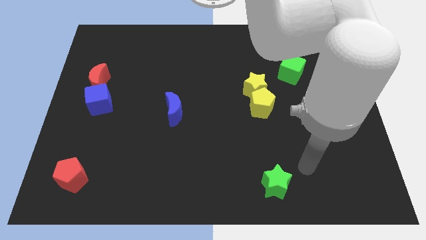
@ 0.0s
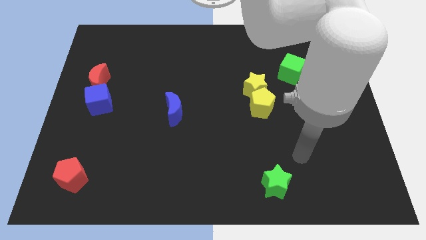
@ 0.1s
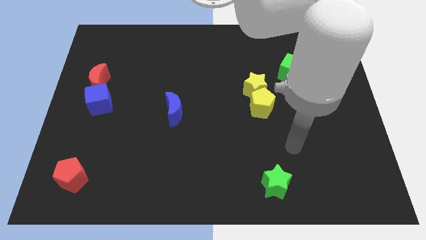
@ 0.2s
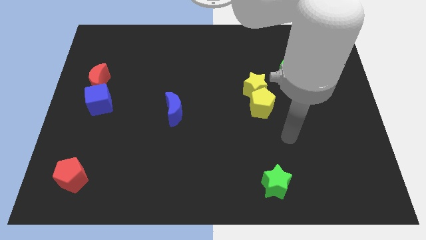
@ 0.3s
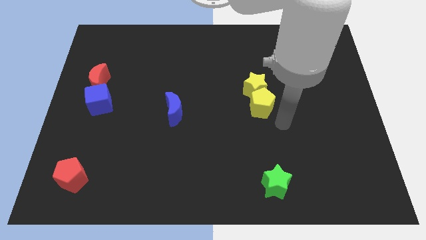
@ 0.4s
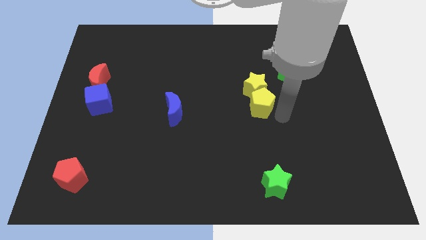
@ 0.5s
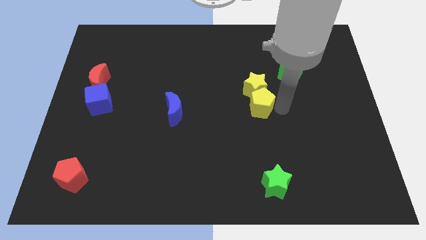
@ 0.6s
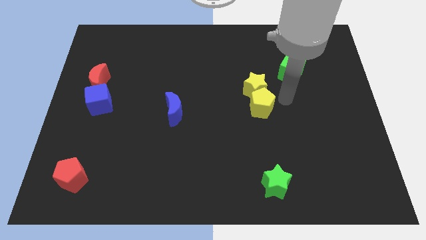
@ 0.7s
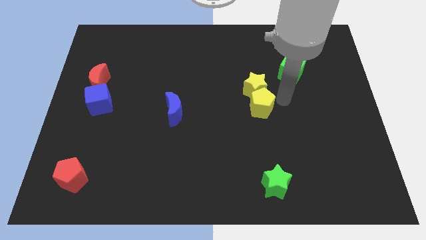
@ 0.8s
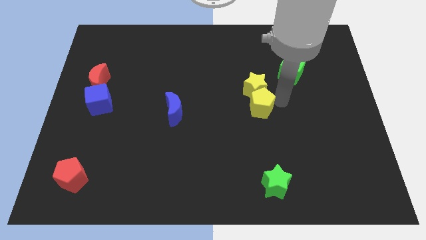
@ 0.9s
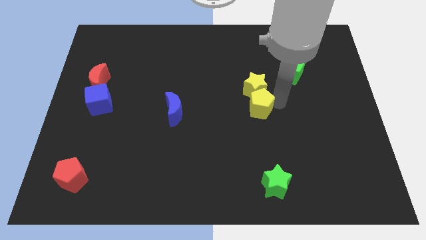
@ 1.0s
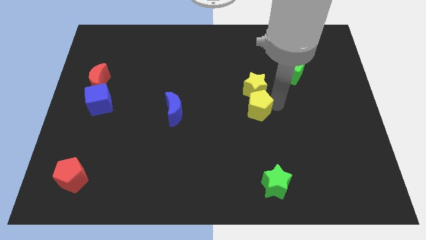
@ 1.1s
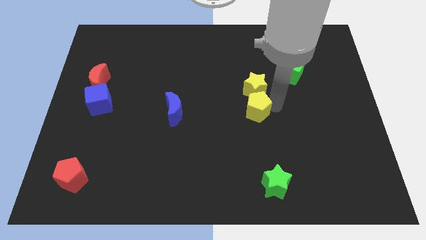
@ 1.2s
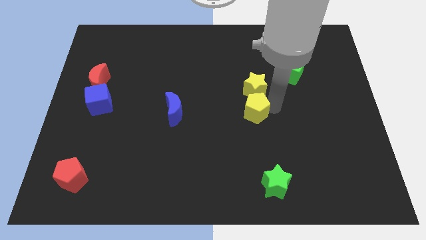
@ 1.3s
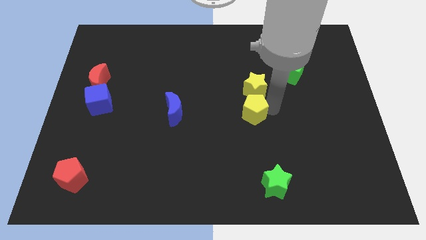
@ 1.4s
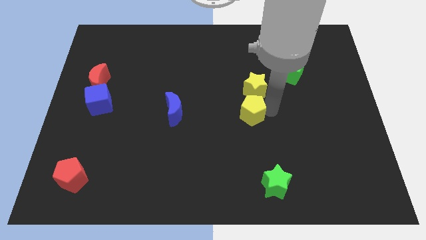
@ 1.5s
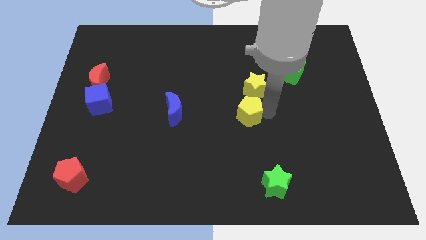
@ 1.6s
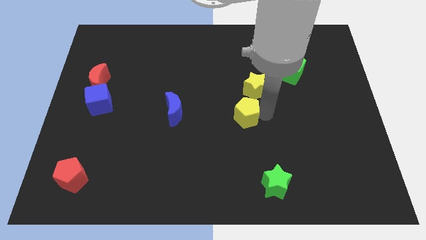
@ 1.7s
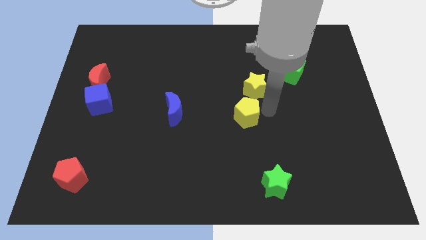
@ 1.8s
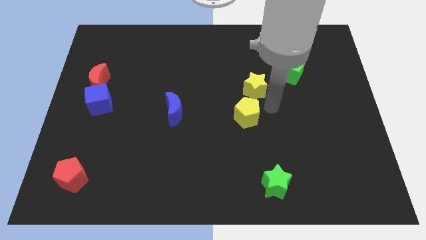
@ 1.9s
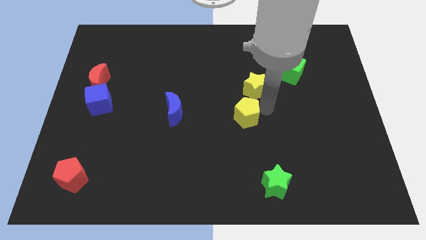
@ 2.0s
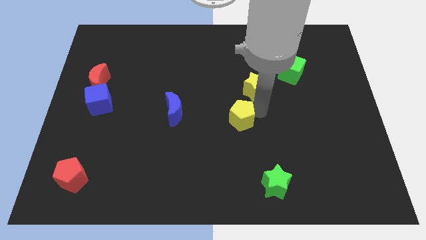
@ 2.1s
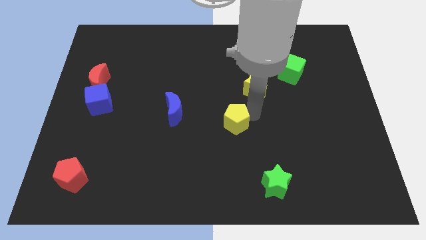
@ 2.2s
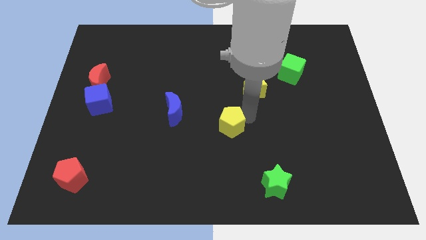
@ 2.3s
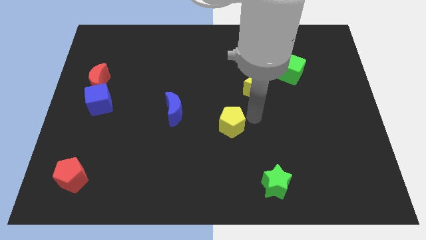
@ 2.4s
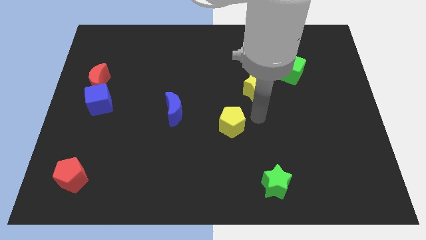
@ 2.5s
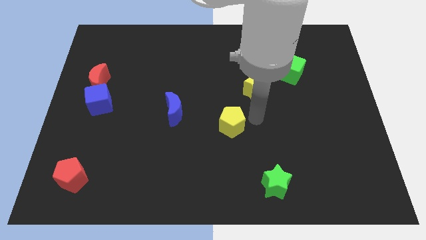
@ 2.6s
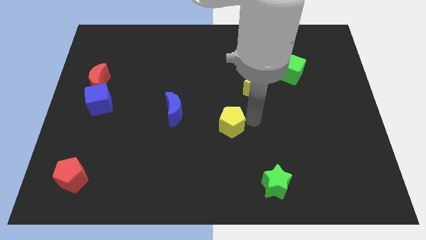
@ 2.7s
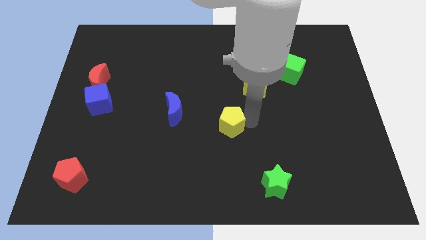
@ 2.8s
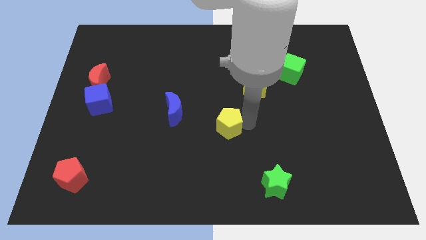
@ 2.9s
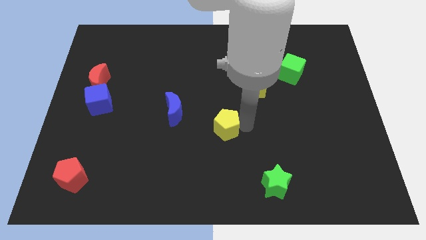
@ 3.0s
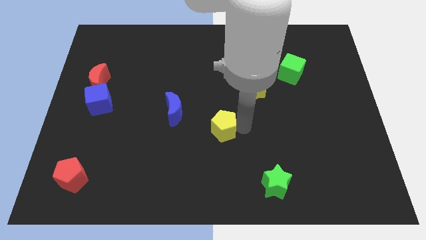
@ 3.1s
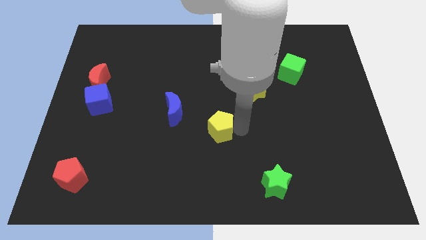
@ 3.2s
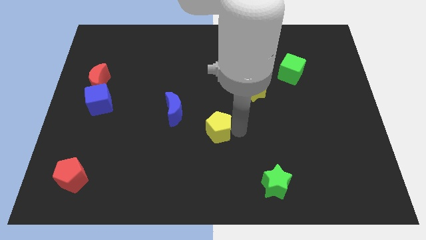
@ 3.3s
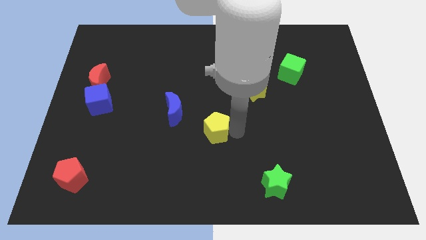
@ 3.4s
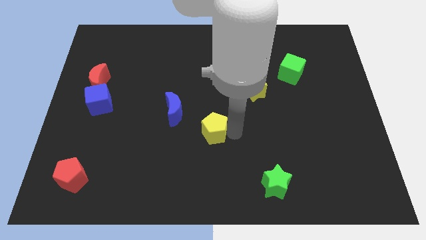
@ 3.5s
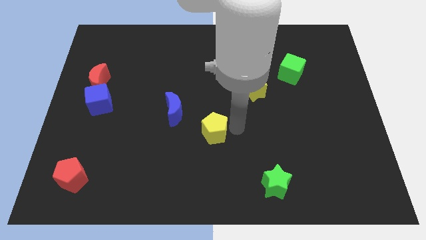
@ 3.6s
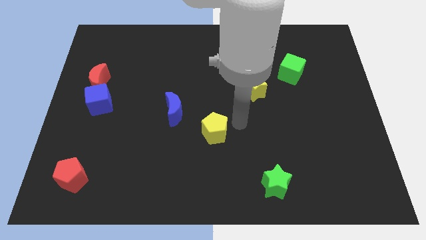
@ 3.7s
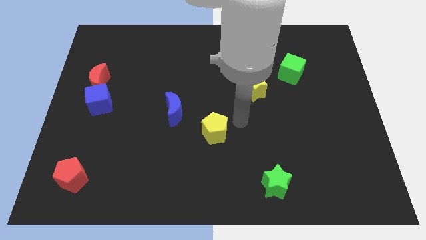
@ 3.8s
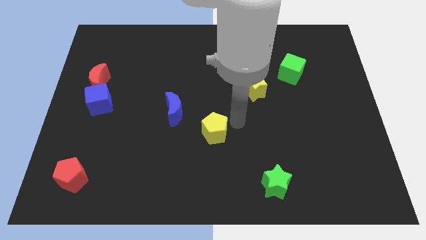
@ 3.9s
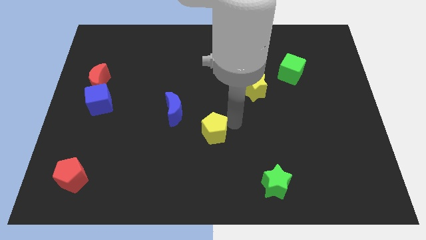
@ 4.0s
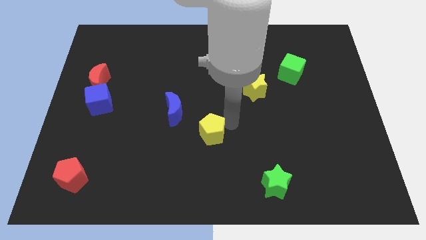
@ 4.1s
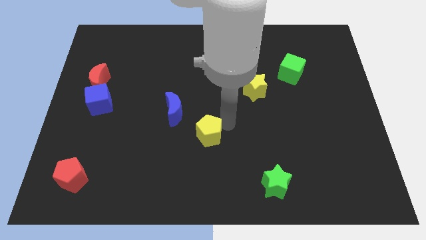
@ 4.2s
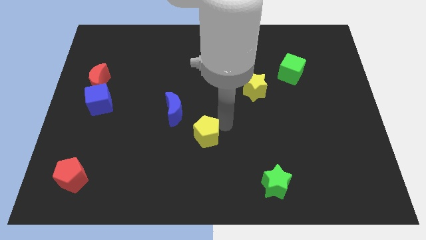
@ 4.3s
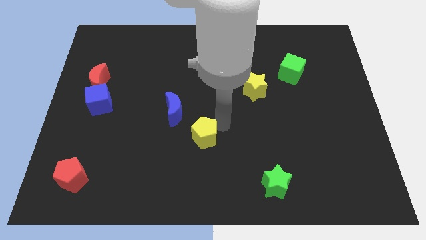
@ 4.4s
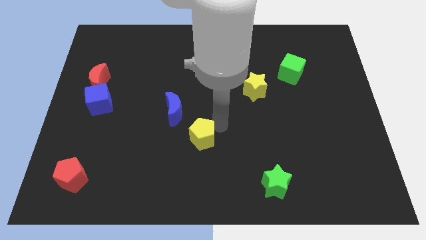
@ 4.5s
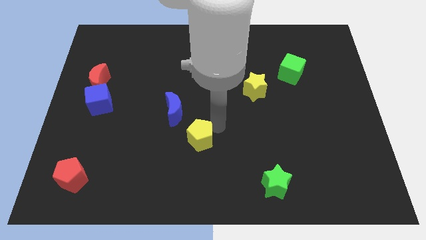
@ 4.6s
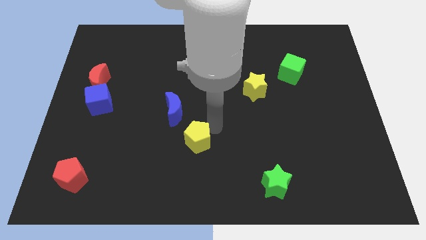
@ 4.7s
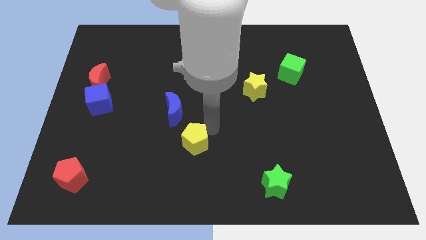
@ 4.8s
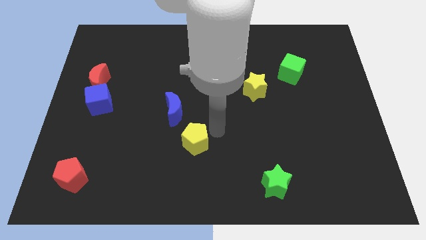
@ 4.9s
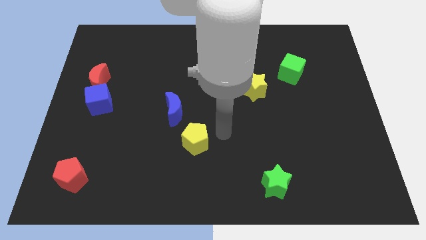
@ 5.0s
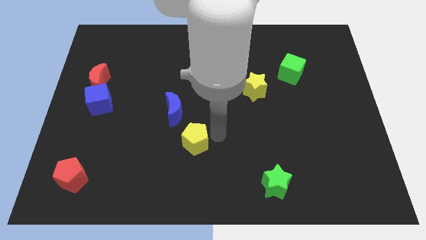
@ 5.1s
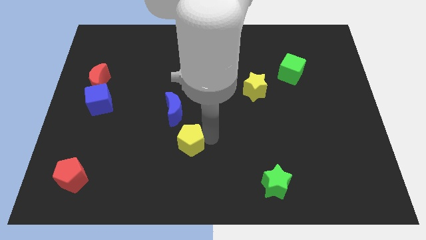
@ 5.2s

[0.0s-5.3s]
move the yellow pentagon to the bottom side of the blue moon

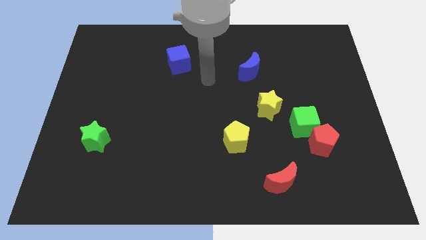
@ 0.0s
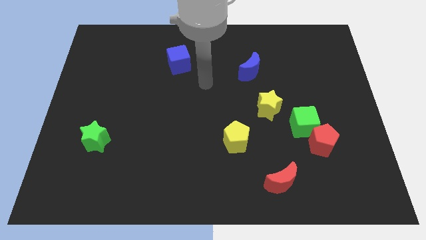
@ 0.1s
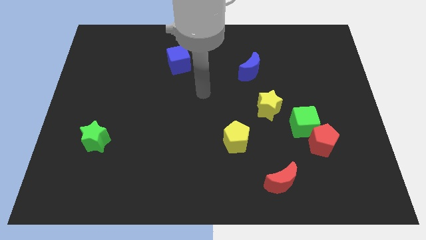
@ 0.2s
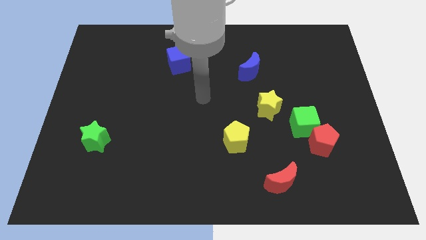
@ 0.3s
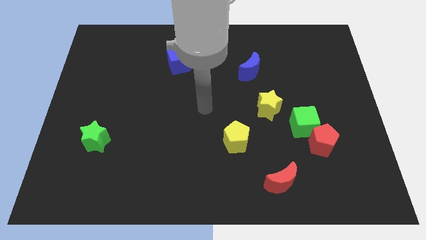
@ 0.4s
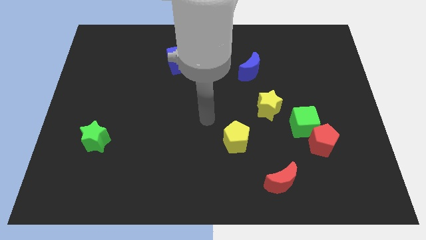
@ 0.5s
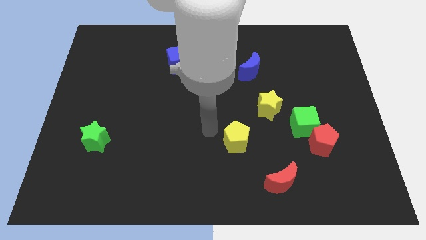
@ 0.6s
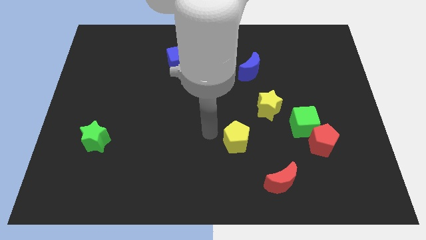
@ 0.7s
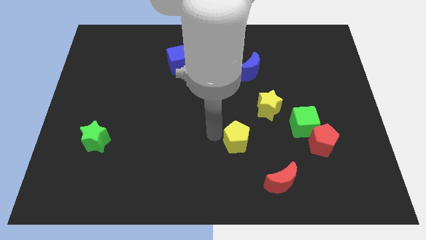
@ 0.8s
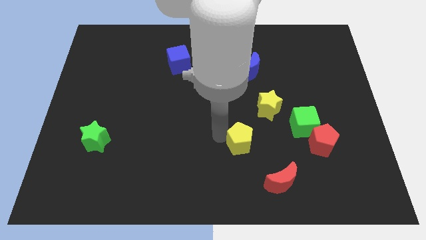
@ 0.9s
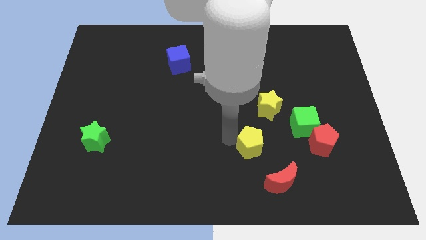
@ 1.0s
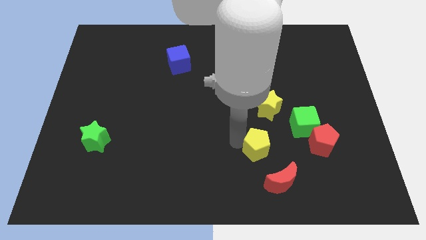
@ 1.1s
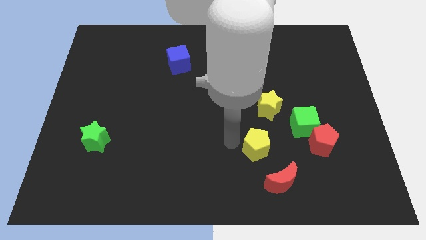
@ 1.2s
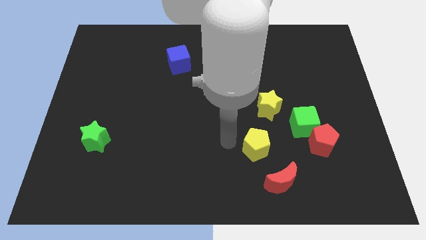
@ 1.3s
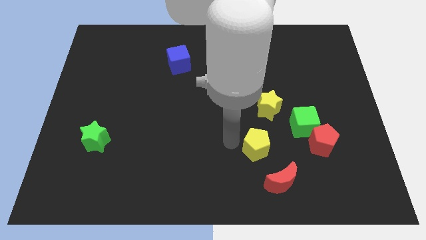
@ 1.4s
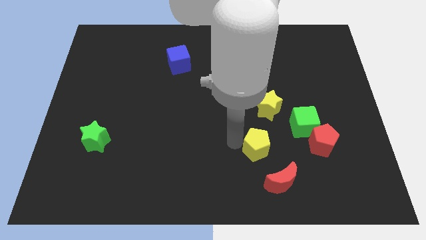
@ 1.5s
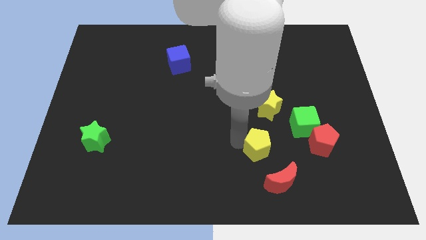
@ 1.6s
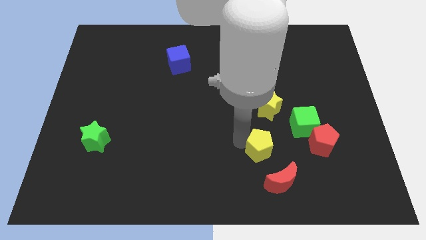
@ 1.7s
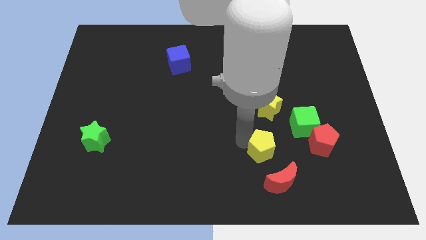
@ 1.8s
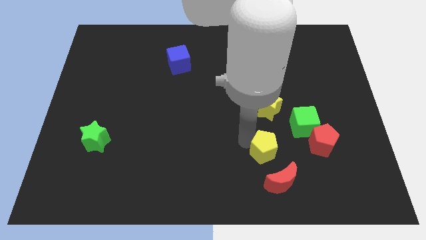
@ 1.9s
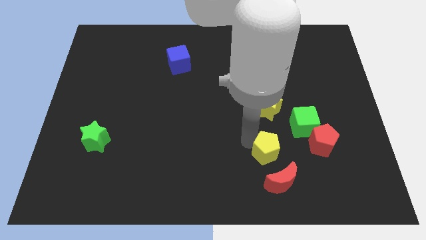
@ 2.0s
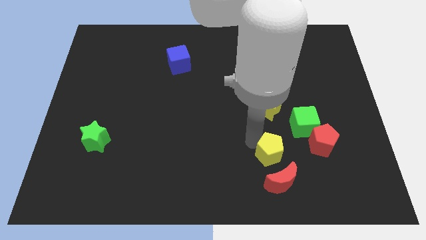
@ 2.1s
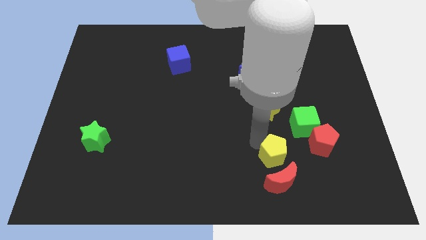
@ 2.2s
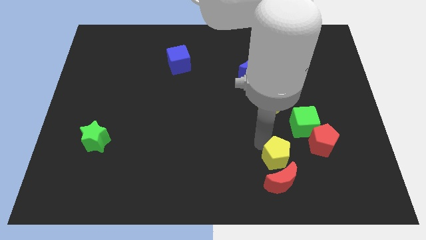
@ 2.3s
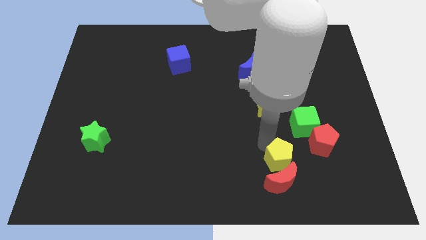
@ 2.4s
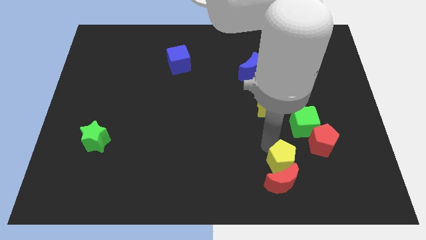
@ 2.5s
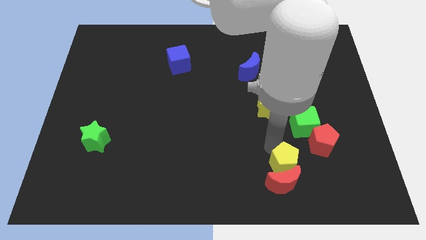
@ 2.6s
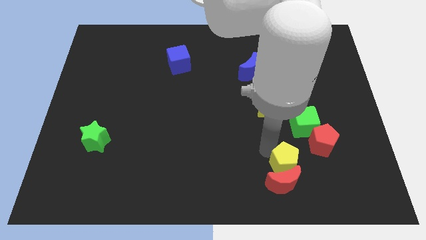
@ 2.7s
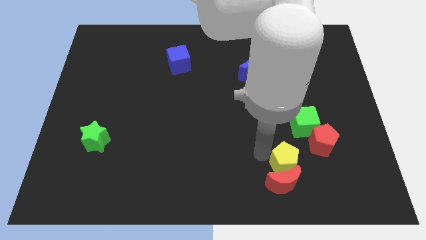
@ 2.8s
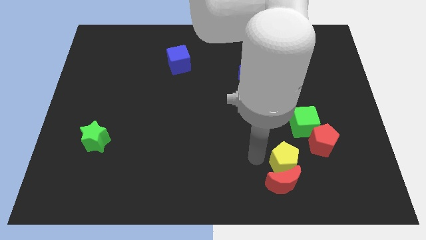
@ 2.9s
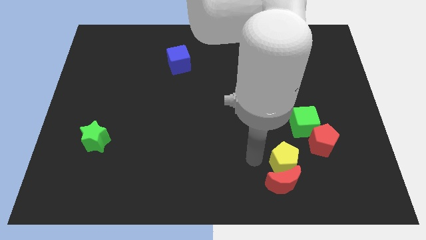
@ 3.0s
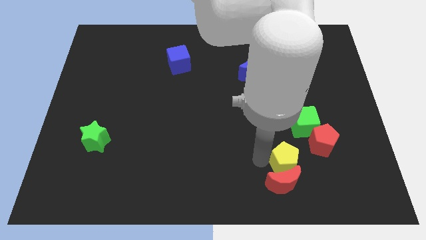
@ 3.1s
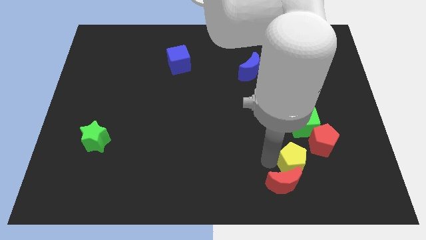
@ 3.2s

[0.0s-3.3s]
move the yellow pentagon to the bottom side of the green cube
